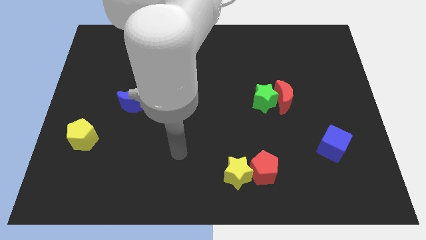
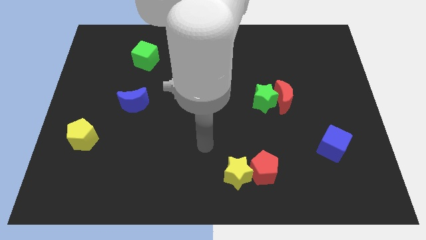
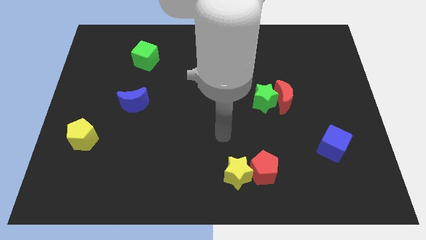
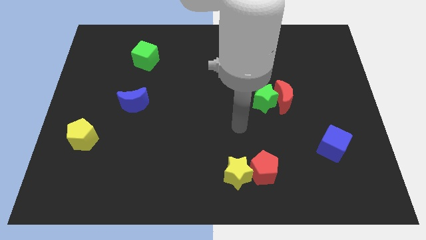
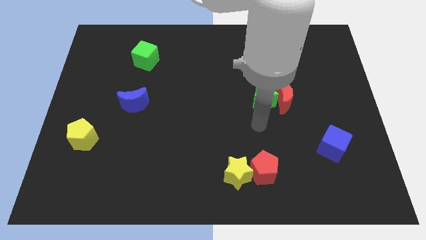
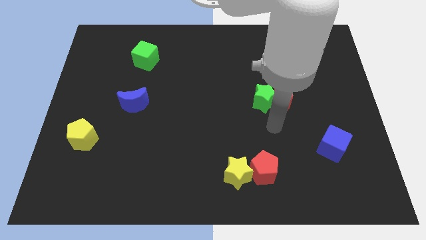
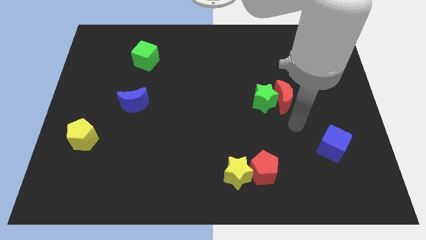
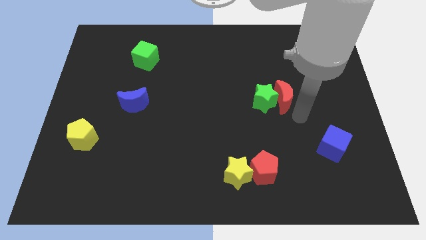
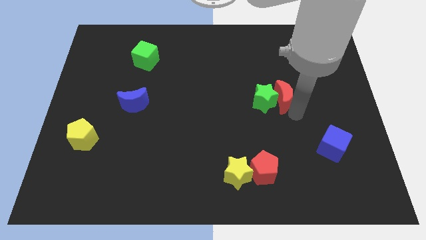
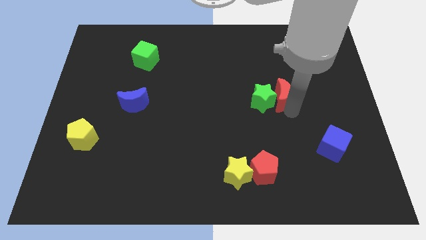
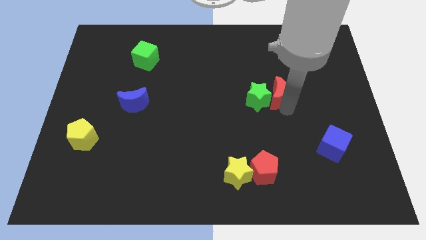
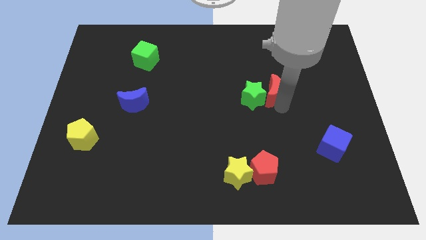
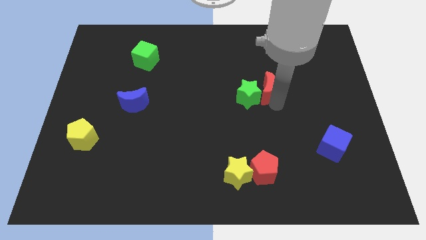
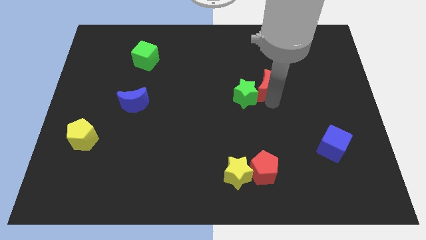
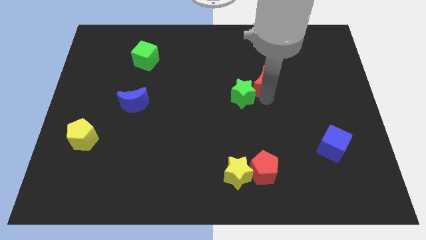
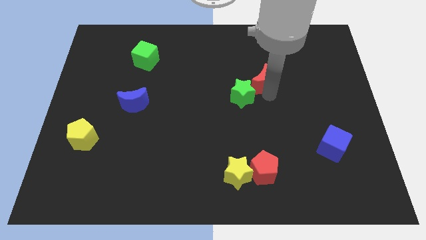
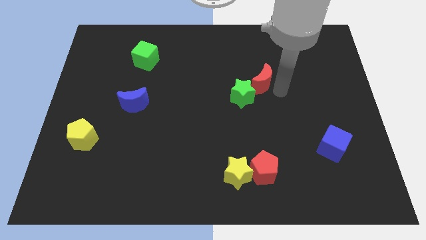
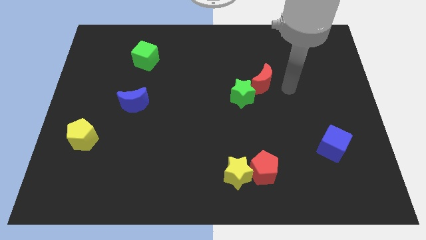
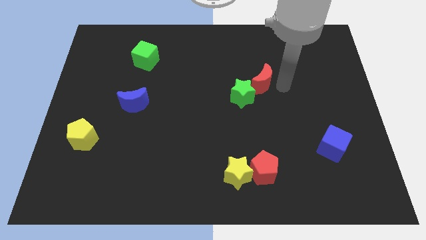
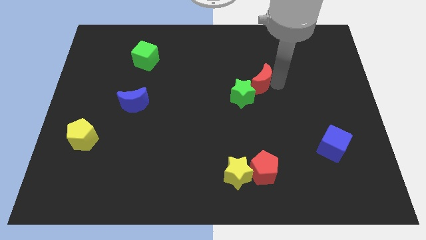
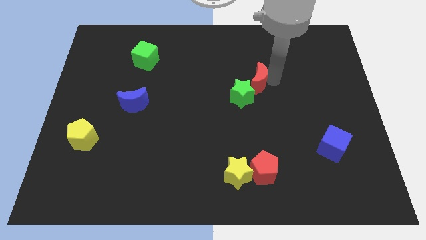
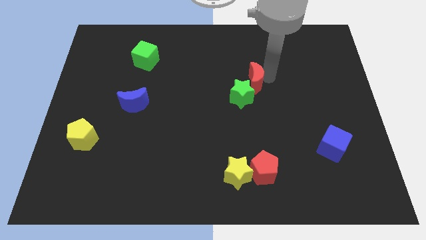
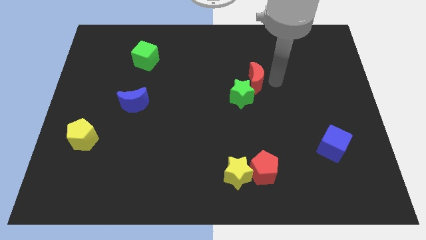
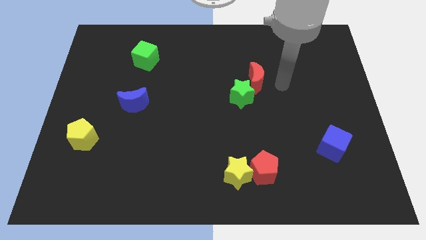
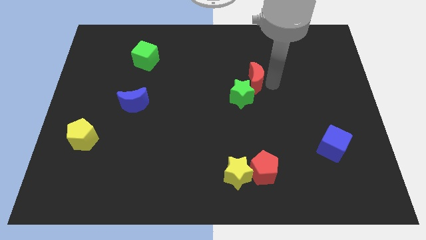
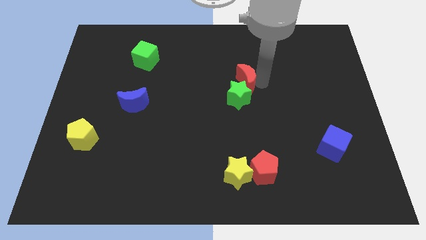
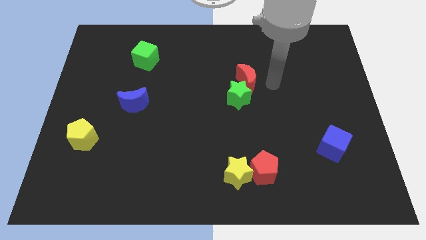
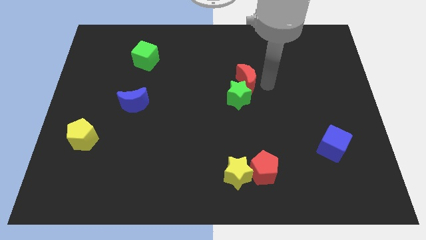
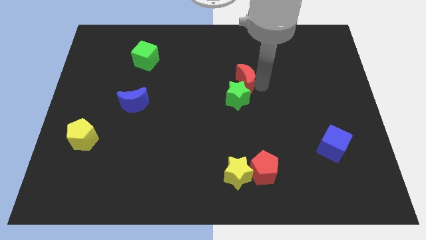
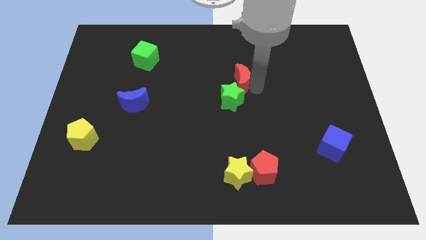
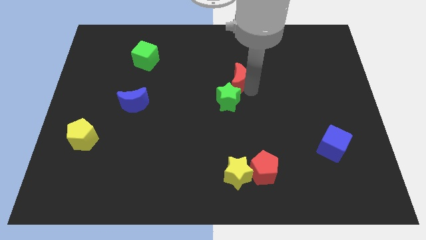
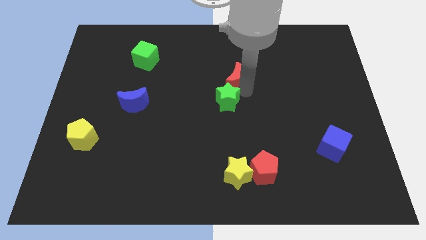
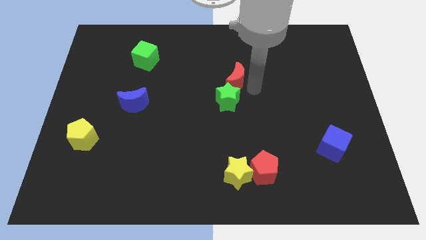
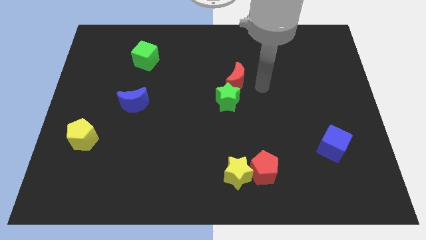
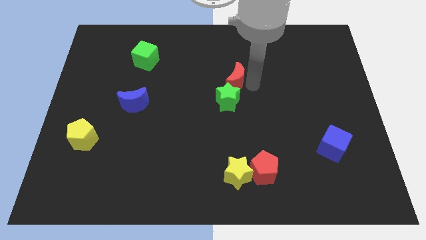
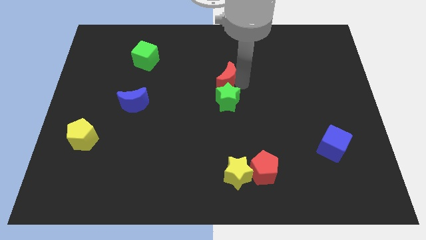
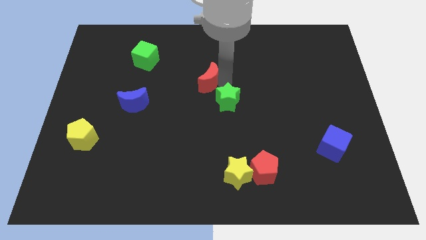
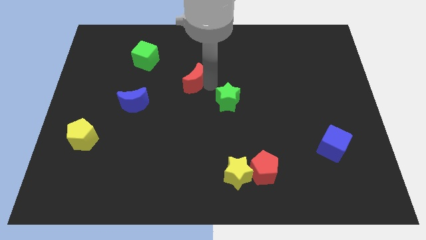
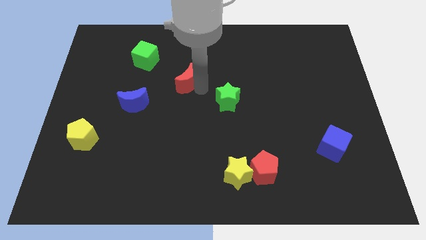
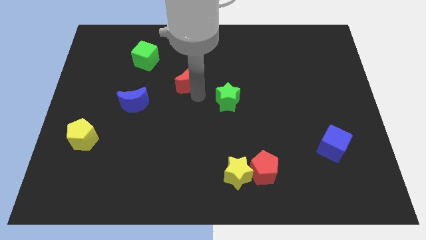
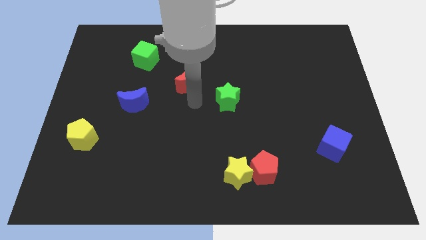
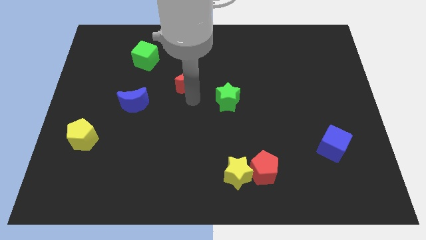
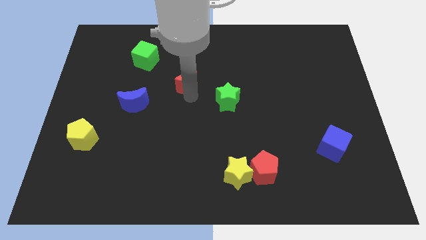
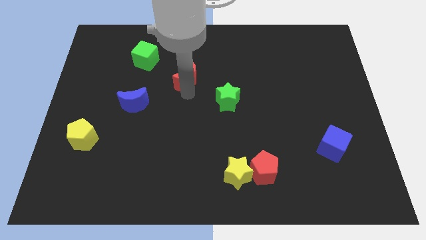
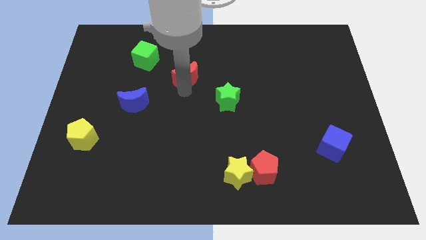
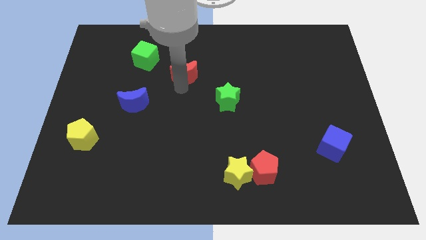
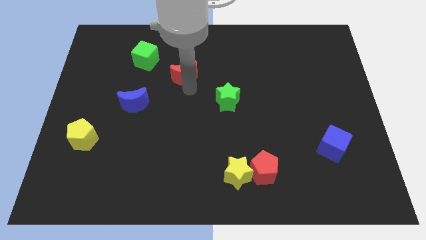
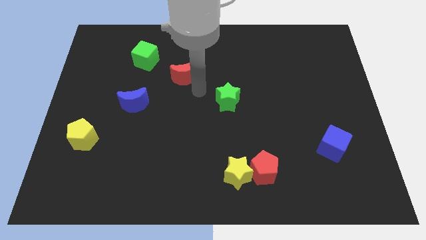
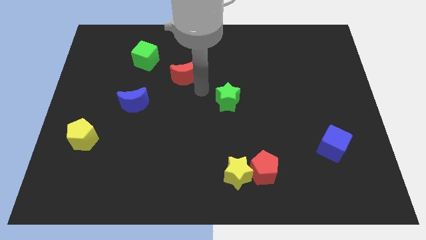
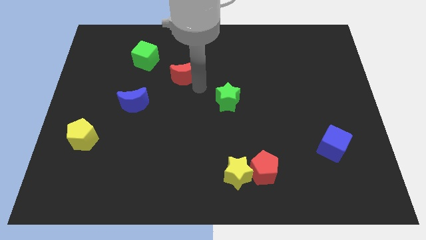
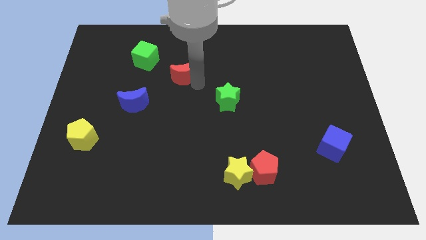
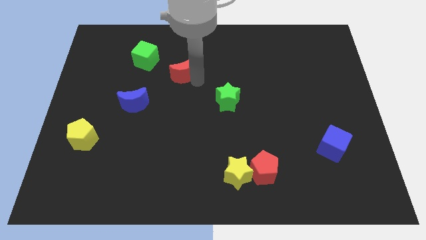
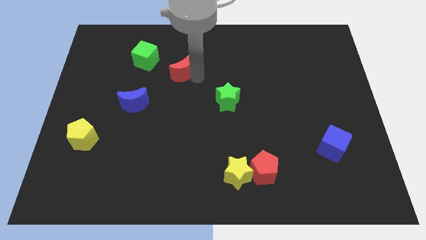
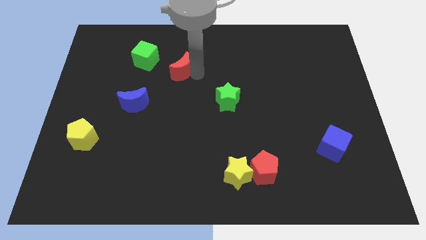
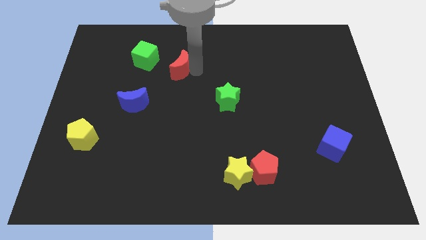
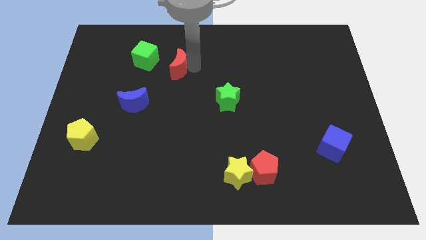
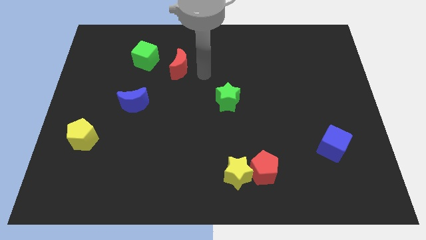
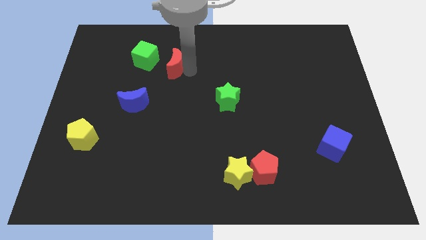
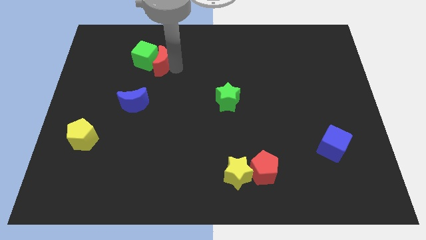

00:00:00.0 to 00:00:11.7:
put the red moon towards the green cube
